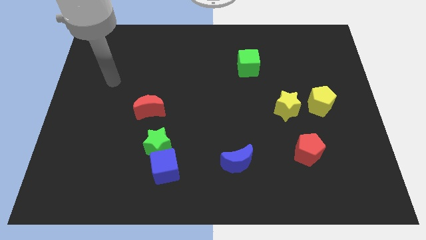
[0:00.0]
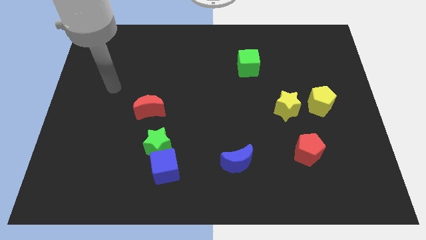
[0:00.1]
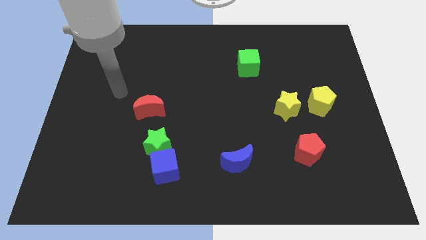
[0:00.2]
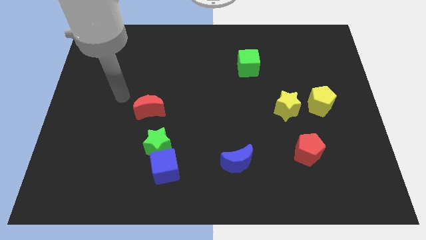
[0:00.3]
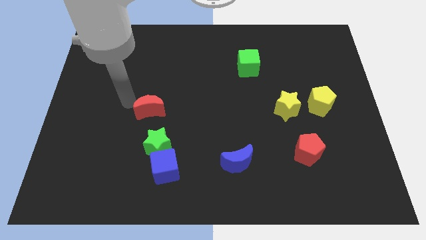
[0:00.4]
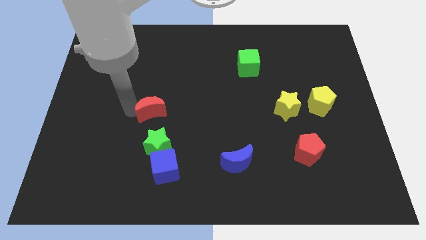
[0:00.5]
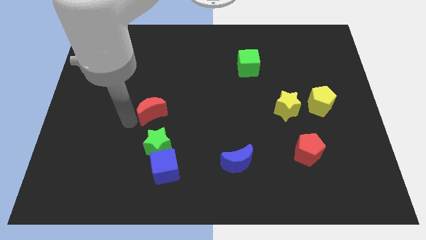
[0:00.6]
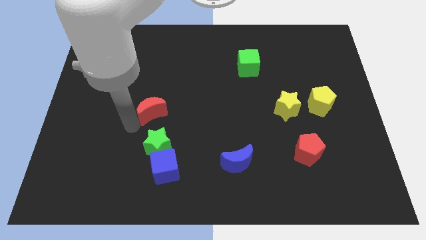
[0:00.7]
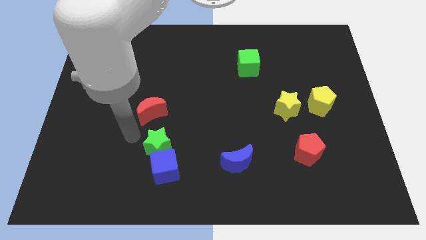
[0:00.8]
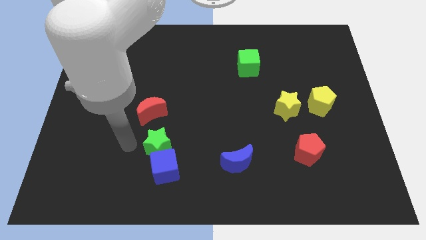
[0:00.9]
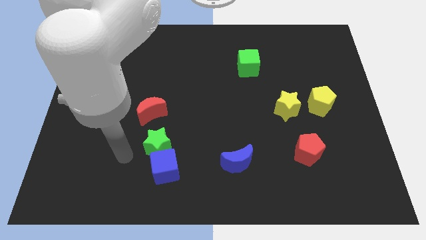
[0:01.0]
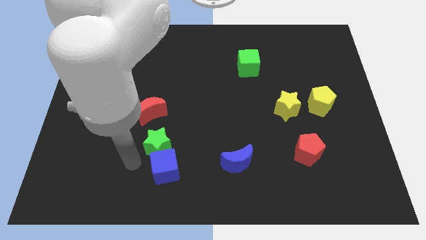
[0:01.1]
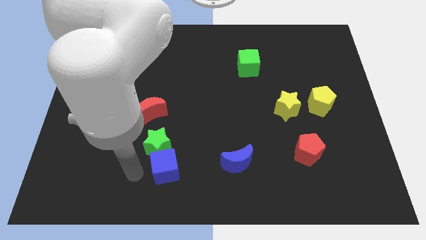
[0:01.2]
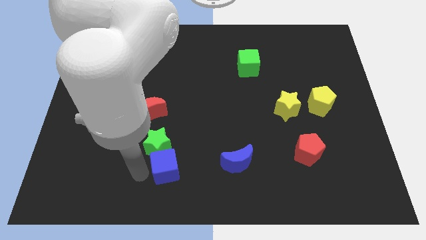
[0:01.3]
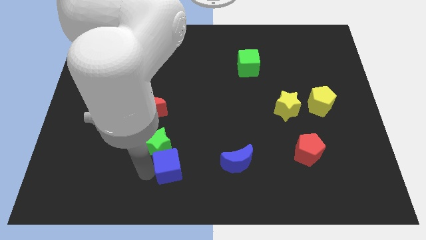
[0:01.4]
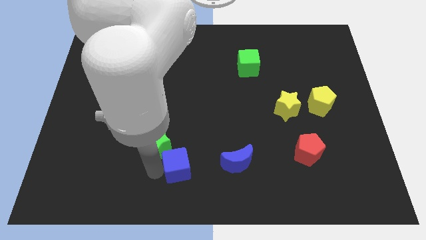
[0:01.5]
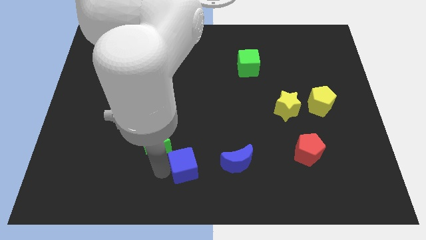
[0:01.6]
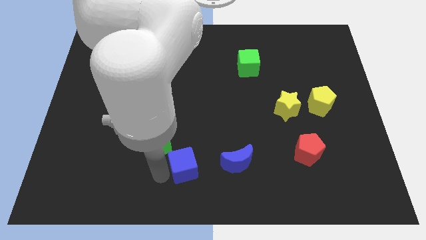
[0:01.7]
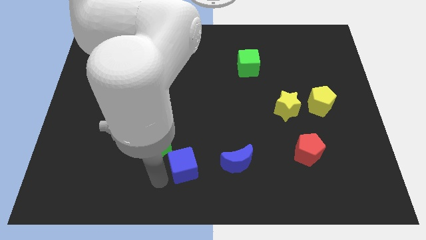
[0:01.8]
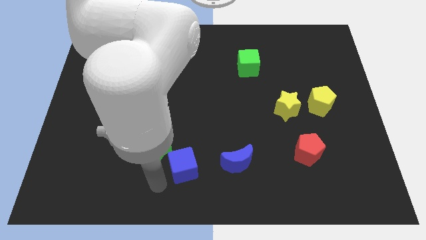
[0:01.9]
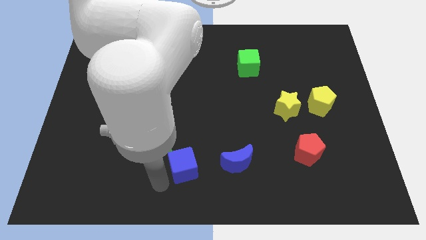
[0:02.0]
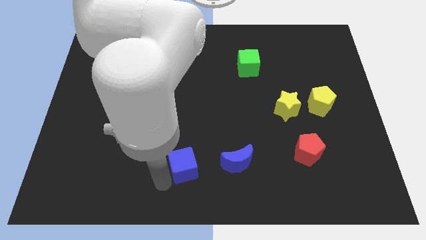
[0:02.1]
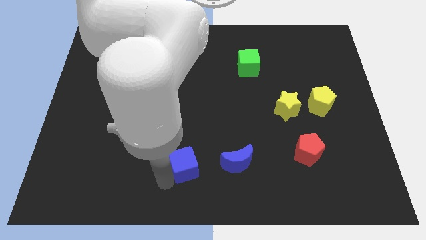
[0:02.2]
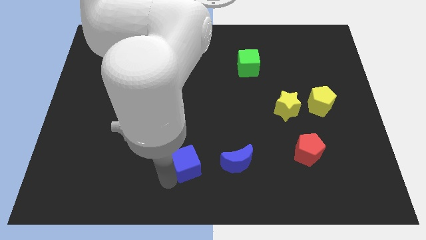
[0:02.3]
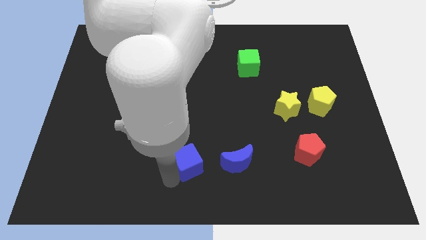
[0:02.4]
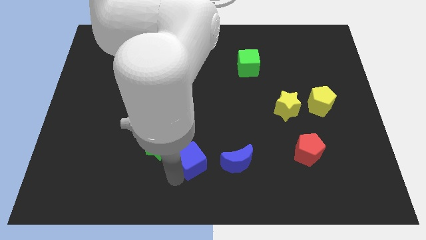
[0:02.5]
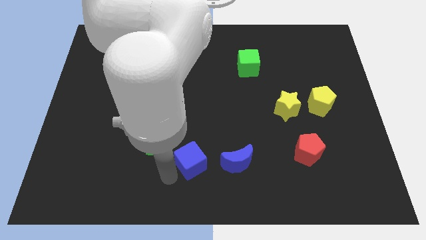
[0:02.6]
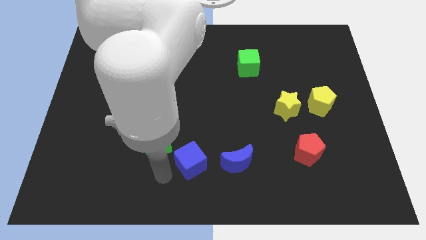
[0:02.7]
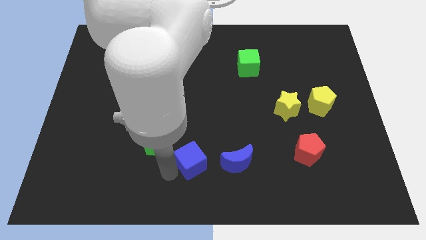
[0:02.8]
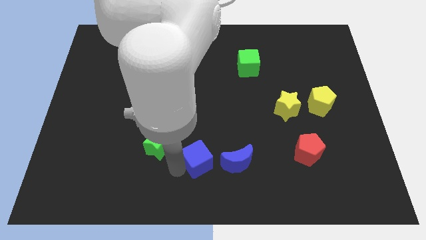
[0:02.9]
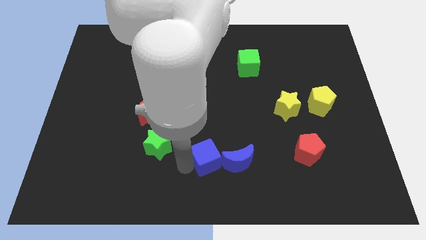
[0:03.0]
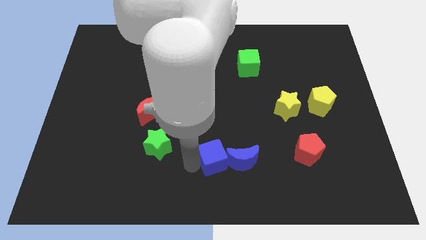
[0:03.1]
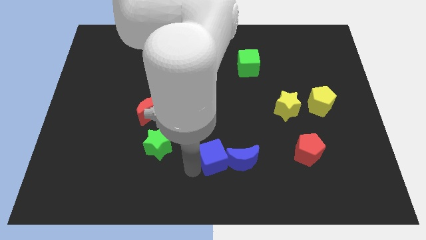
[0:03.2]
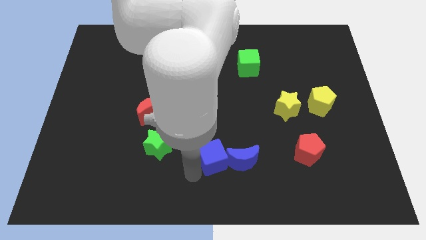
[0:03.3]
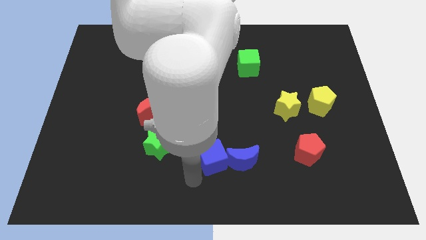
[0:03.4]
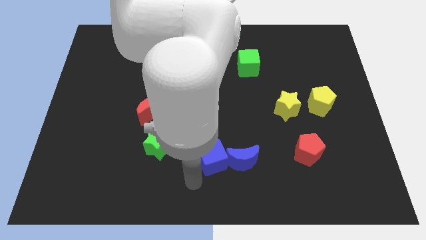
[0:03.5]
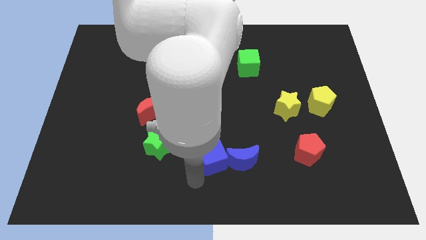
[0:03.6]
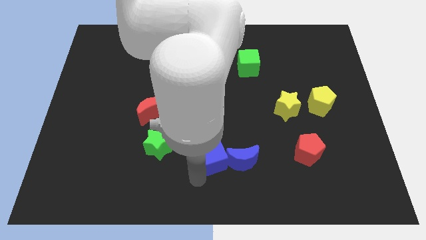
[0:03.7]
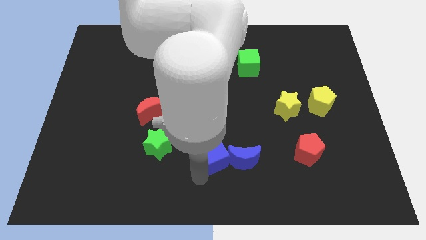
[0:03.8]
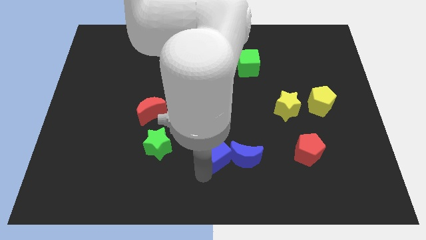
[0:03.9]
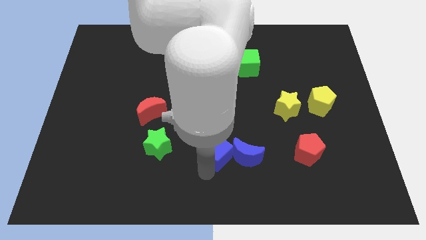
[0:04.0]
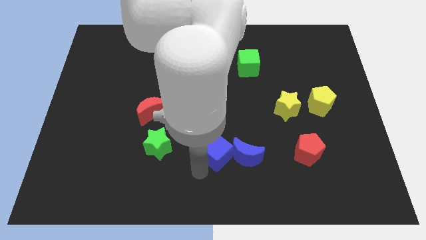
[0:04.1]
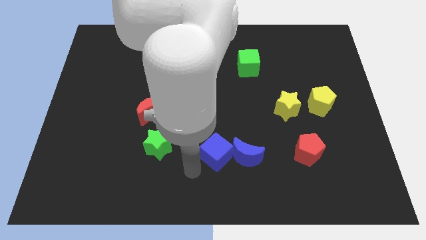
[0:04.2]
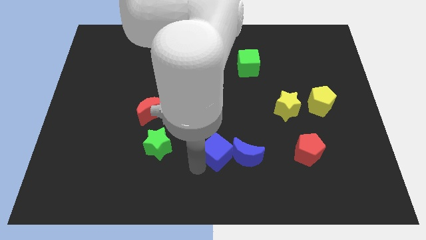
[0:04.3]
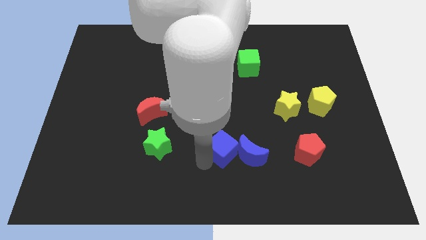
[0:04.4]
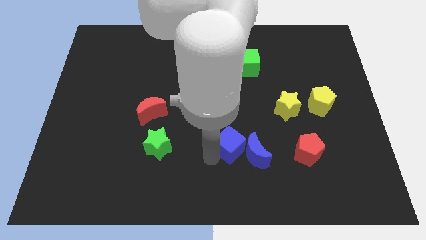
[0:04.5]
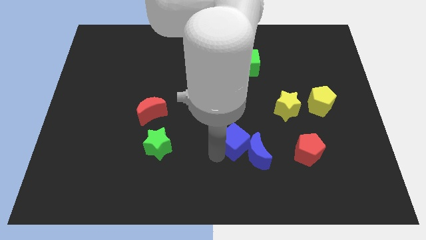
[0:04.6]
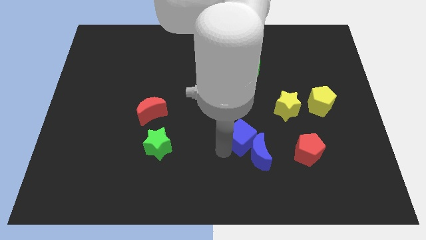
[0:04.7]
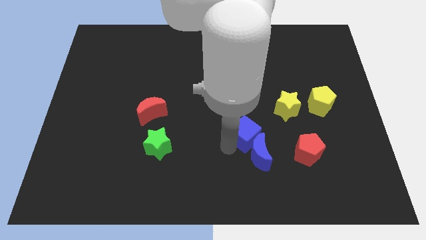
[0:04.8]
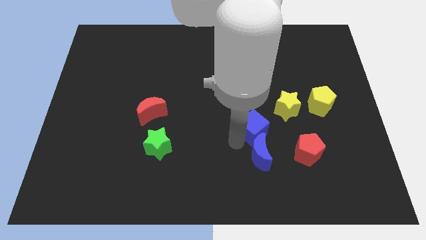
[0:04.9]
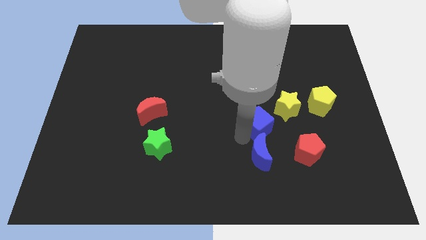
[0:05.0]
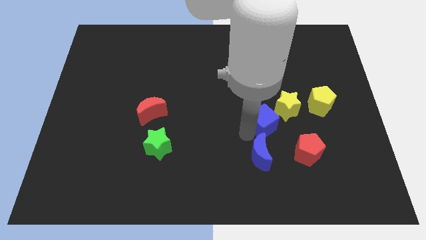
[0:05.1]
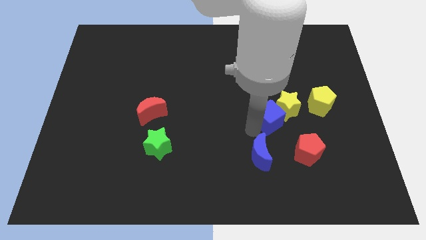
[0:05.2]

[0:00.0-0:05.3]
push the blue cube next to the yellow star

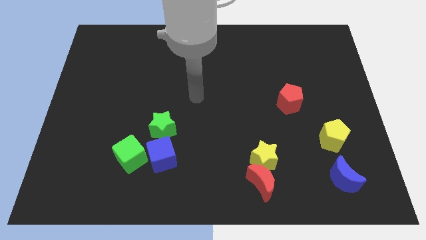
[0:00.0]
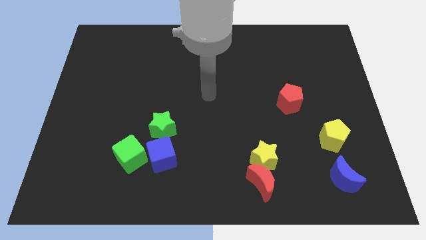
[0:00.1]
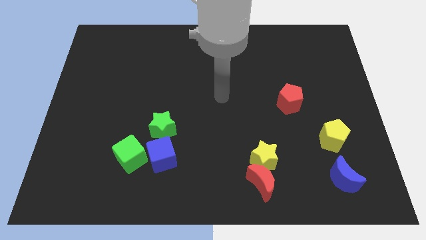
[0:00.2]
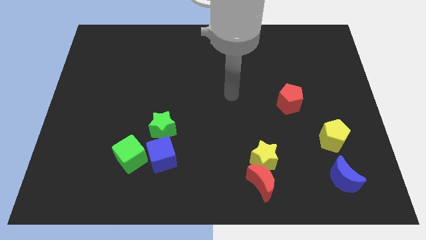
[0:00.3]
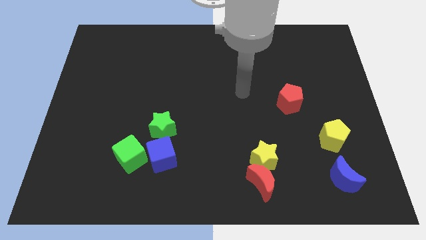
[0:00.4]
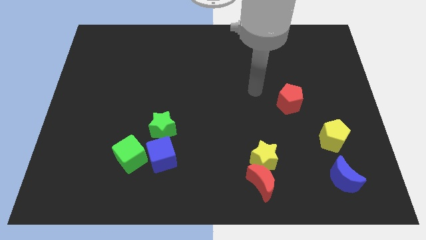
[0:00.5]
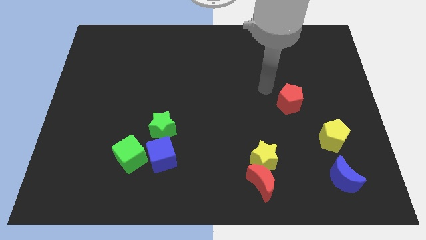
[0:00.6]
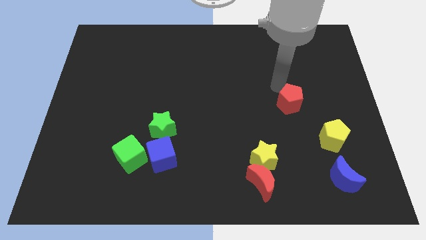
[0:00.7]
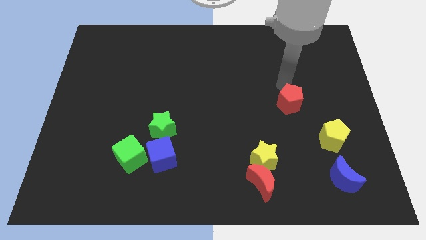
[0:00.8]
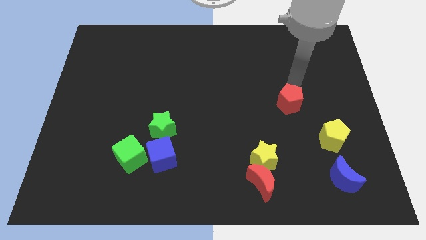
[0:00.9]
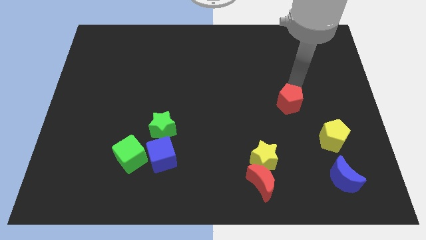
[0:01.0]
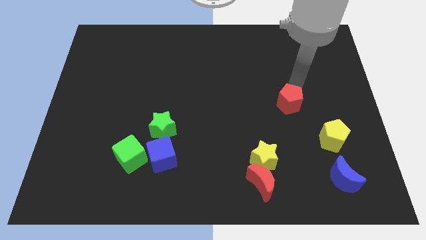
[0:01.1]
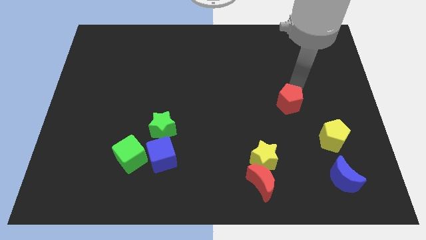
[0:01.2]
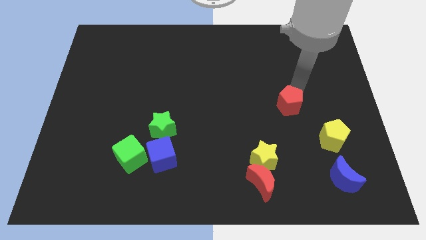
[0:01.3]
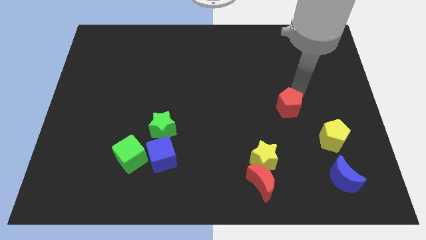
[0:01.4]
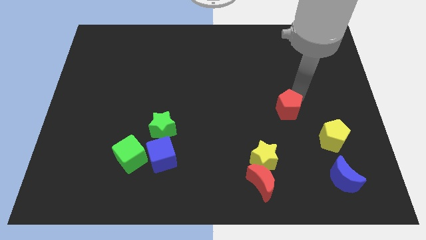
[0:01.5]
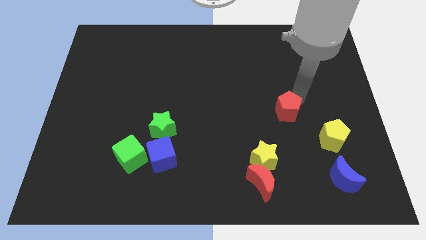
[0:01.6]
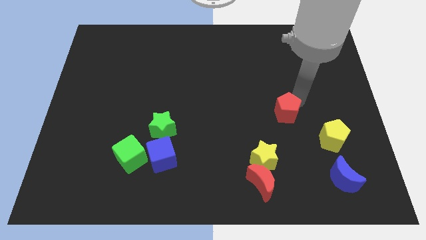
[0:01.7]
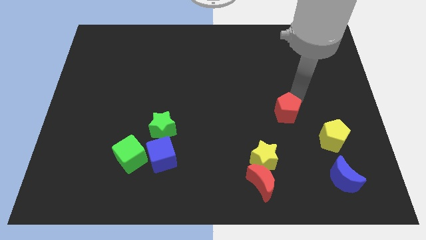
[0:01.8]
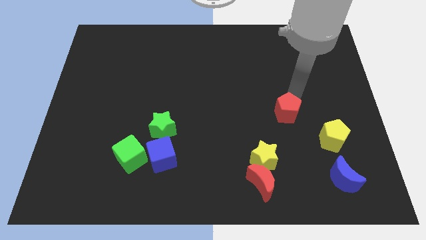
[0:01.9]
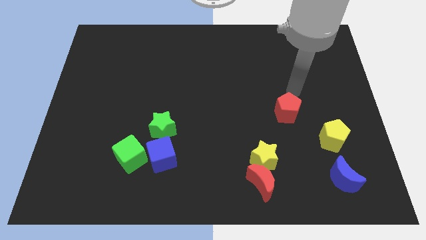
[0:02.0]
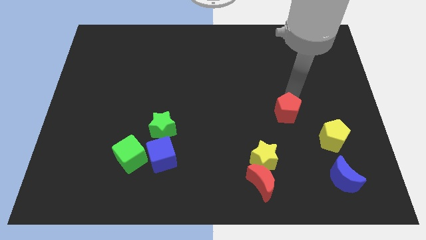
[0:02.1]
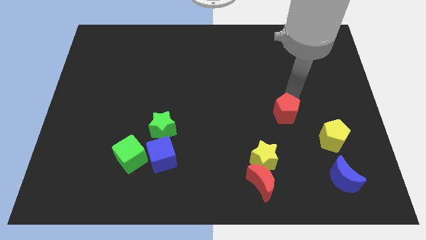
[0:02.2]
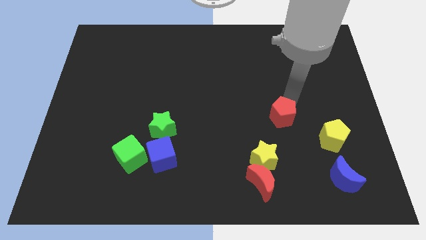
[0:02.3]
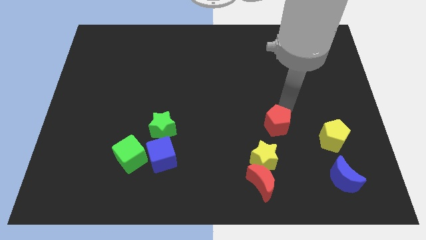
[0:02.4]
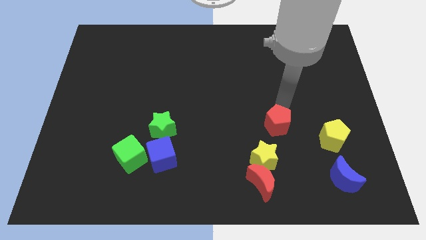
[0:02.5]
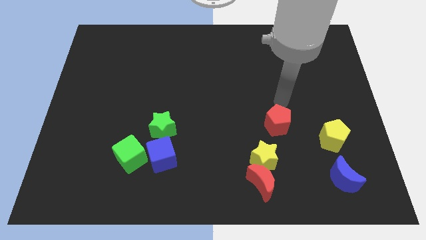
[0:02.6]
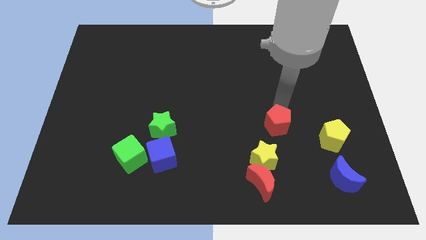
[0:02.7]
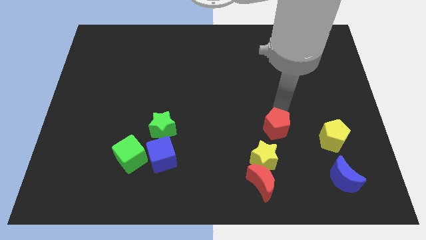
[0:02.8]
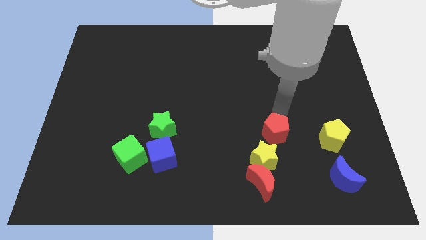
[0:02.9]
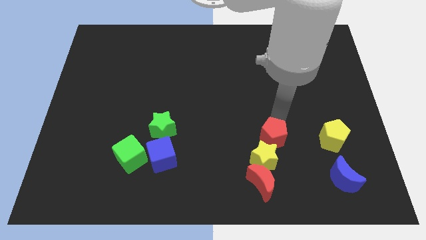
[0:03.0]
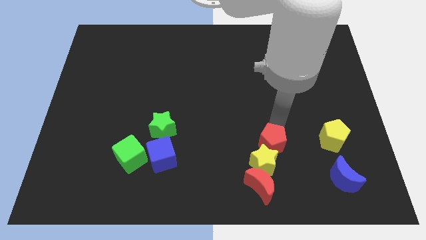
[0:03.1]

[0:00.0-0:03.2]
push the red pentagon close to the yellow star
